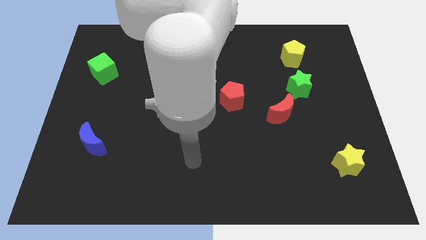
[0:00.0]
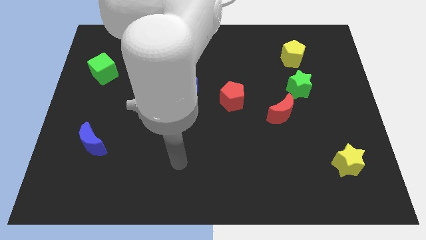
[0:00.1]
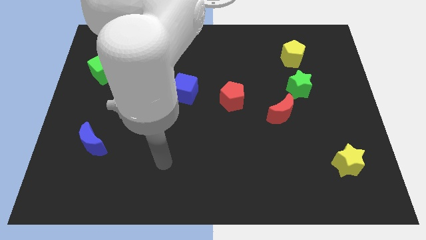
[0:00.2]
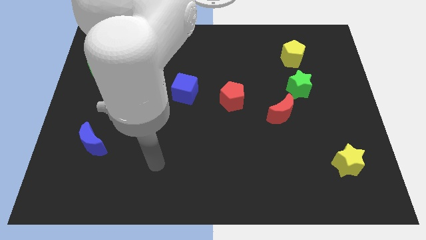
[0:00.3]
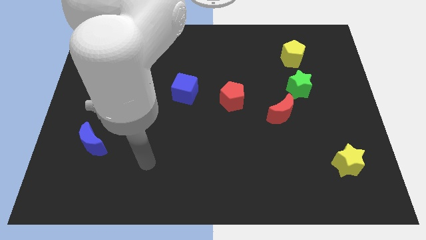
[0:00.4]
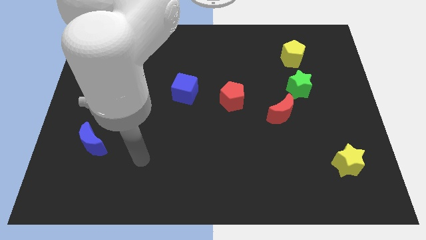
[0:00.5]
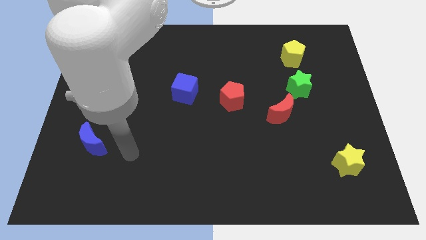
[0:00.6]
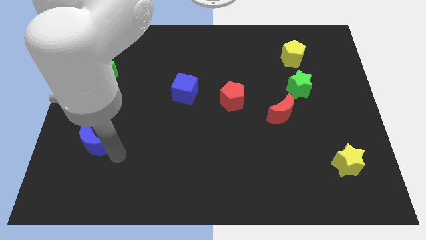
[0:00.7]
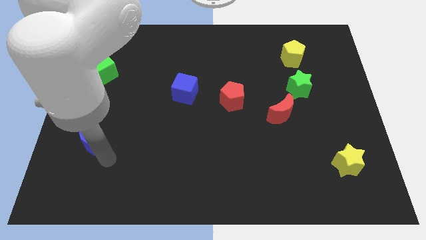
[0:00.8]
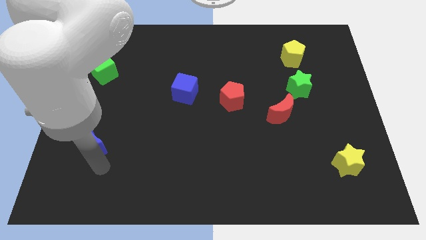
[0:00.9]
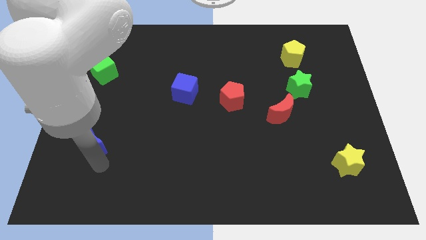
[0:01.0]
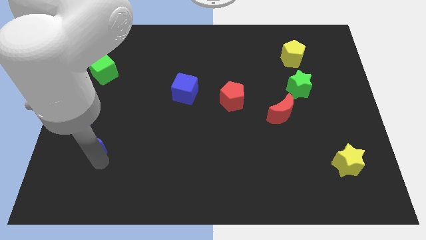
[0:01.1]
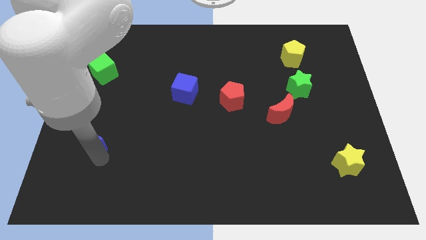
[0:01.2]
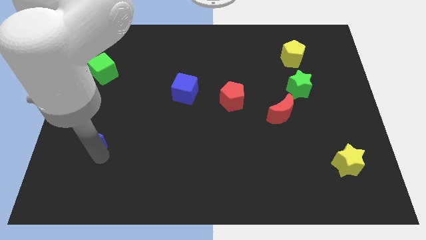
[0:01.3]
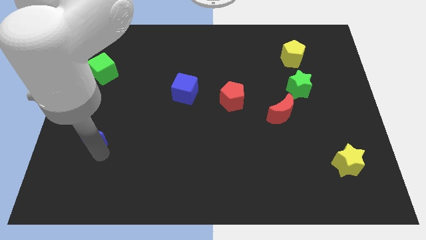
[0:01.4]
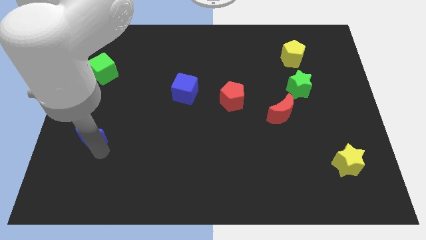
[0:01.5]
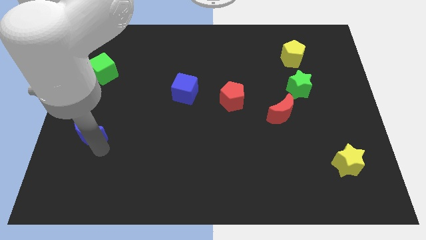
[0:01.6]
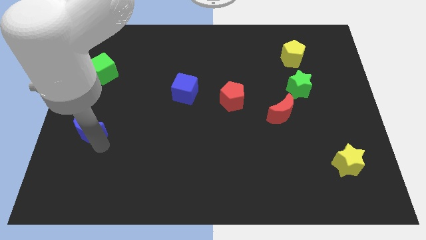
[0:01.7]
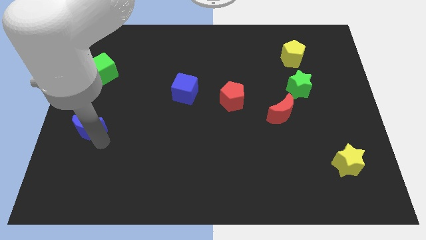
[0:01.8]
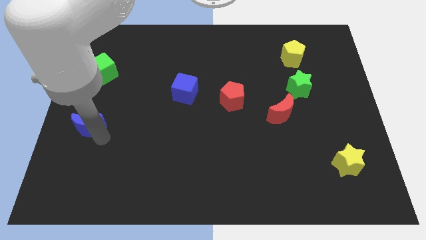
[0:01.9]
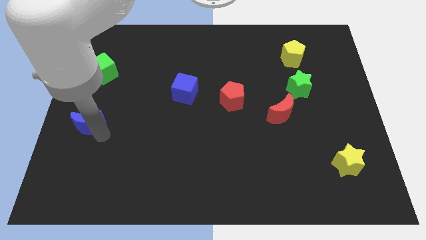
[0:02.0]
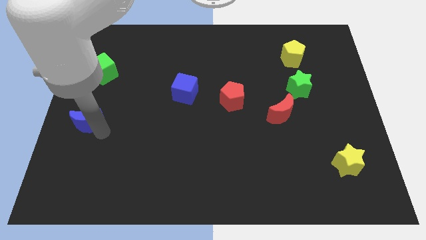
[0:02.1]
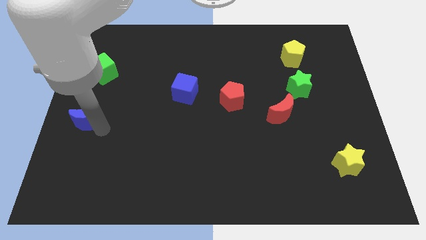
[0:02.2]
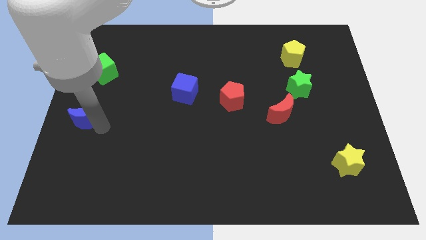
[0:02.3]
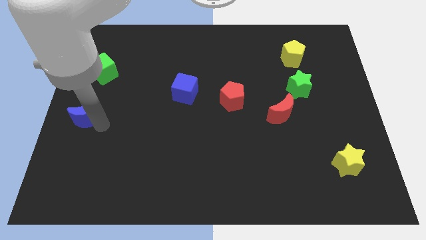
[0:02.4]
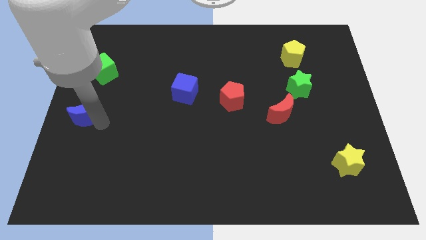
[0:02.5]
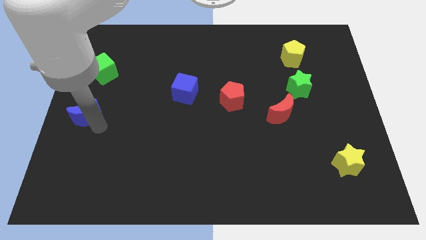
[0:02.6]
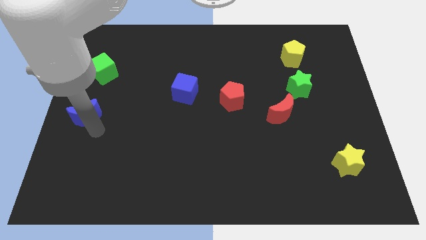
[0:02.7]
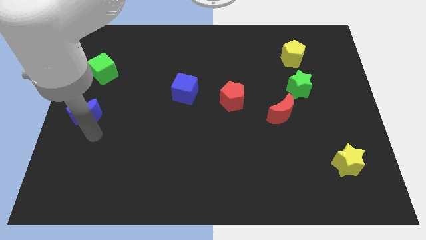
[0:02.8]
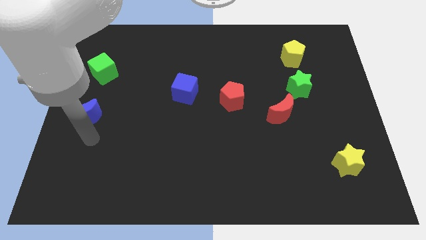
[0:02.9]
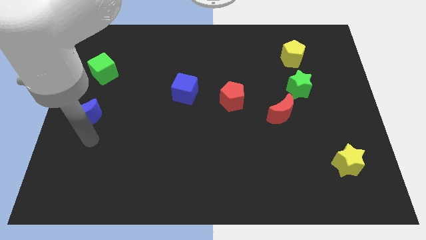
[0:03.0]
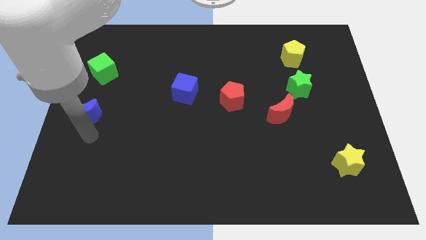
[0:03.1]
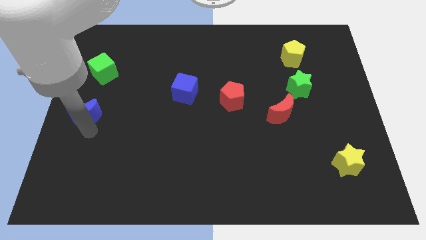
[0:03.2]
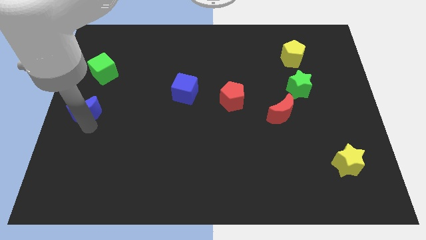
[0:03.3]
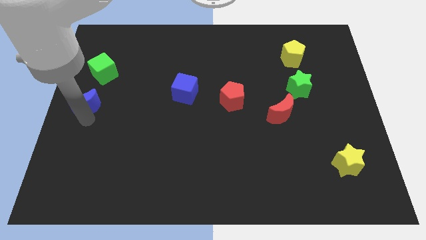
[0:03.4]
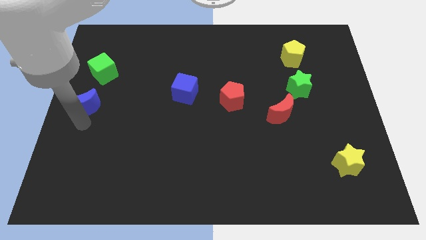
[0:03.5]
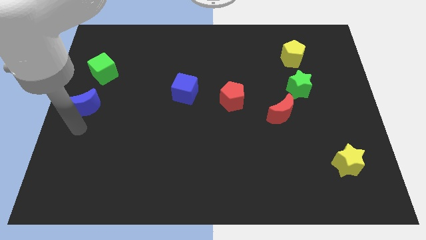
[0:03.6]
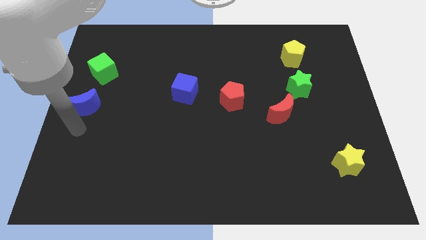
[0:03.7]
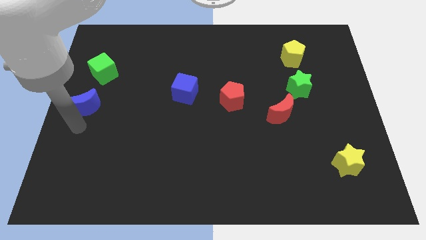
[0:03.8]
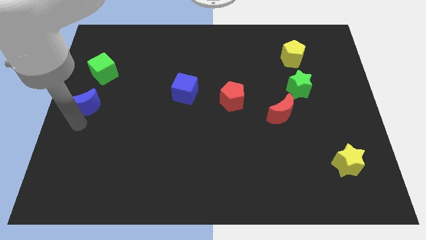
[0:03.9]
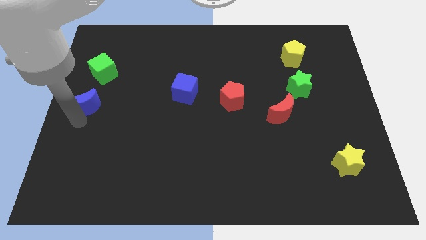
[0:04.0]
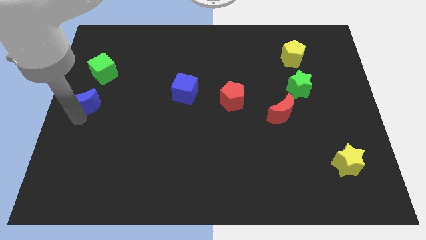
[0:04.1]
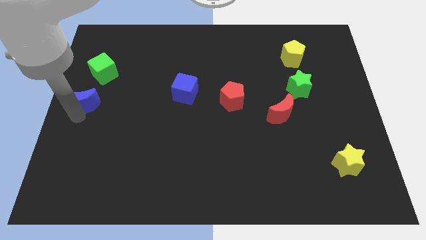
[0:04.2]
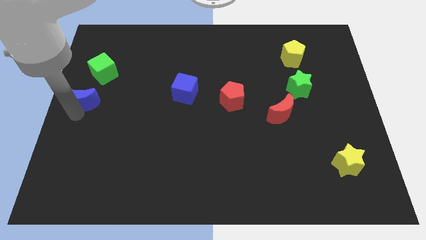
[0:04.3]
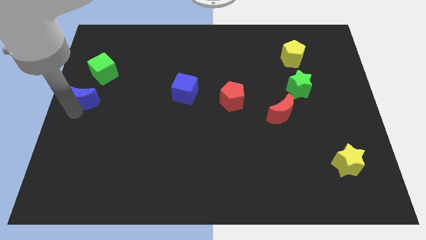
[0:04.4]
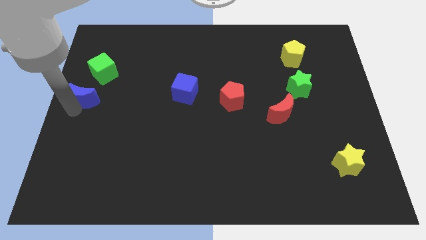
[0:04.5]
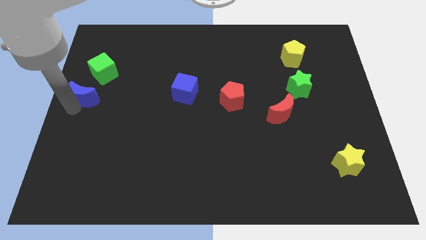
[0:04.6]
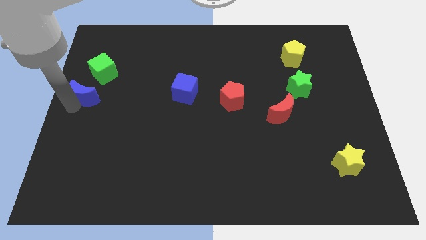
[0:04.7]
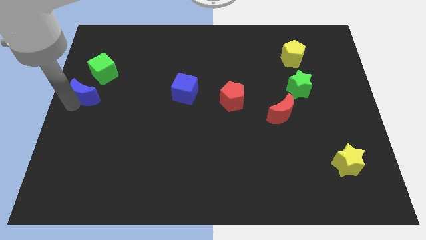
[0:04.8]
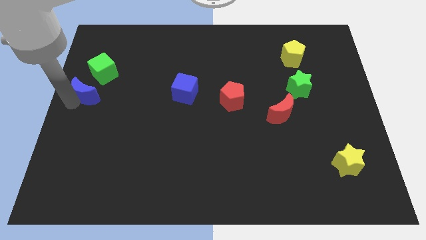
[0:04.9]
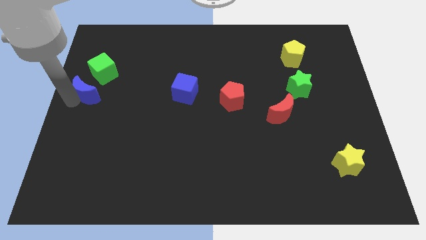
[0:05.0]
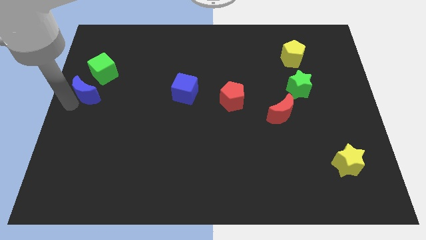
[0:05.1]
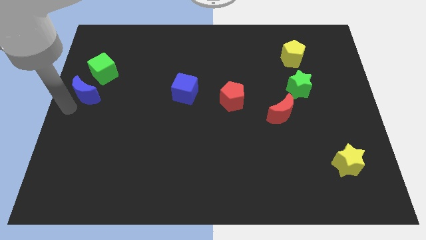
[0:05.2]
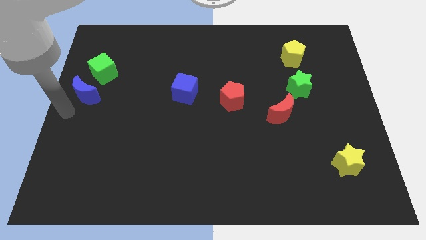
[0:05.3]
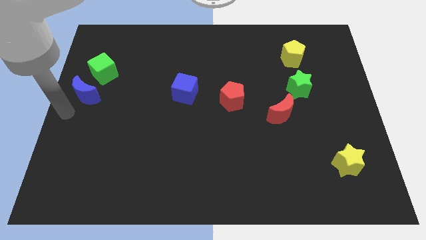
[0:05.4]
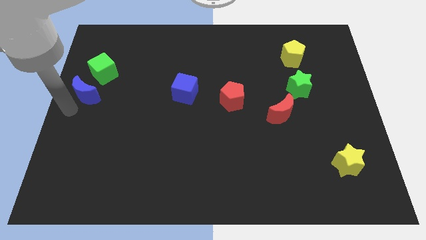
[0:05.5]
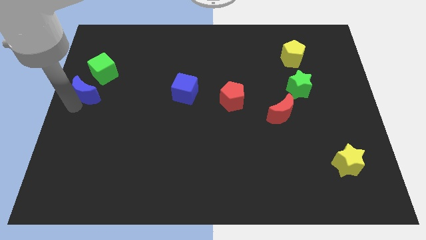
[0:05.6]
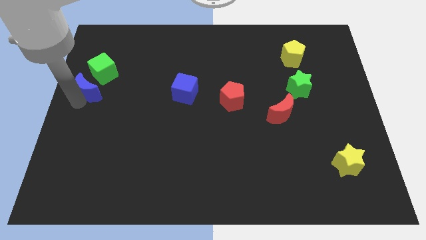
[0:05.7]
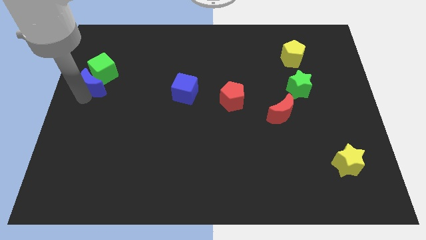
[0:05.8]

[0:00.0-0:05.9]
move the blue moon towards the green cube

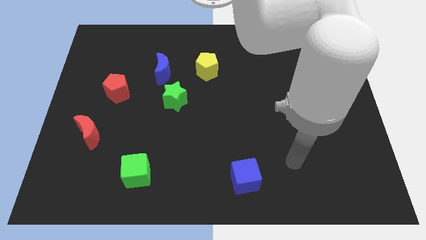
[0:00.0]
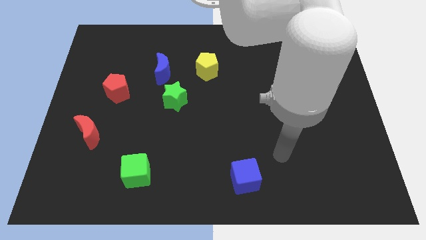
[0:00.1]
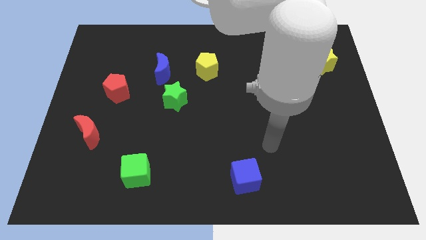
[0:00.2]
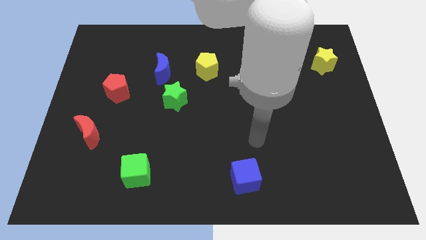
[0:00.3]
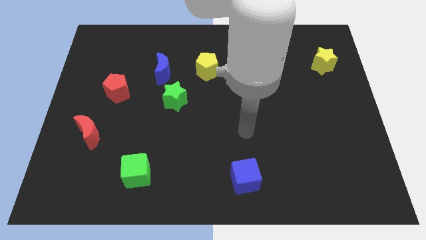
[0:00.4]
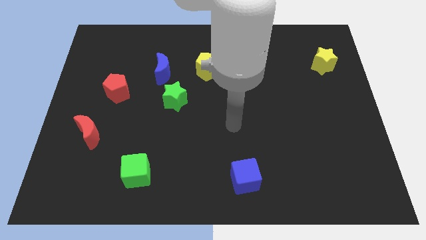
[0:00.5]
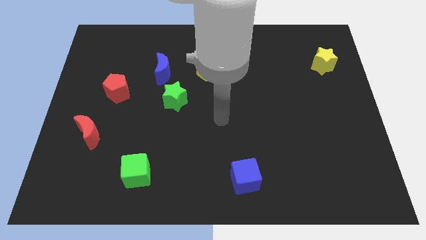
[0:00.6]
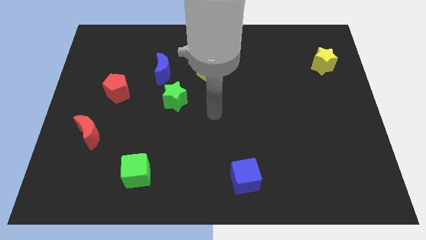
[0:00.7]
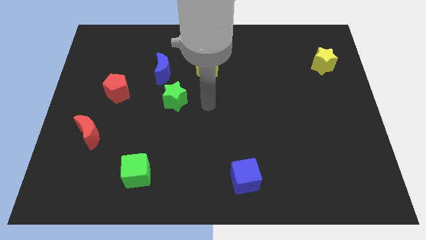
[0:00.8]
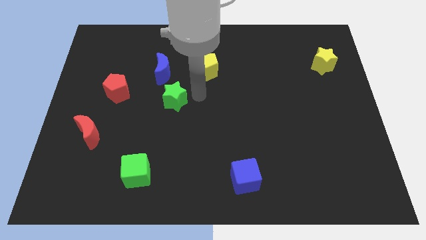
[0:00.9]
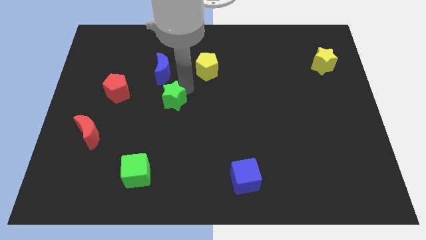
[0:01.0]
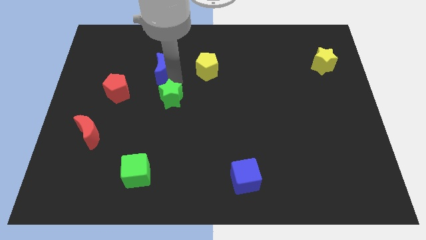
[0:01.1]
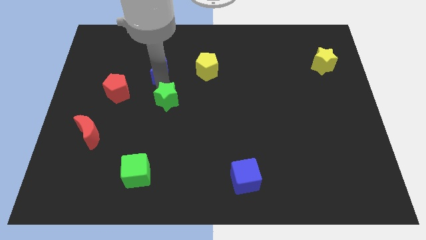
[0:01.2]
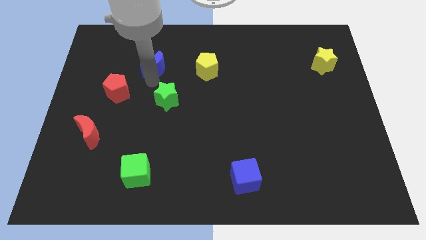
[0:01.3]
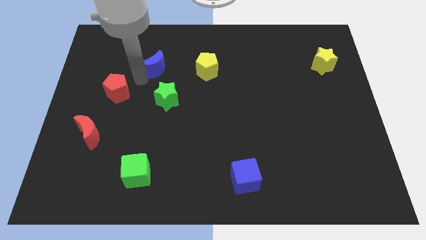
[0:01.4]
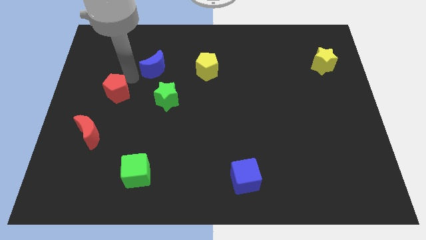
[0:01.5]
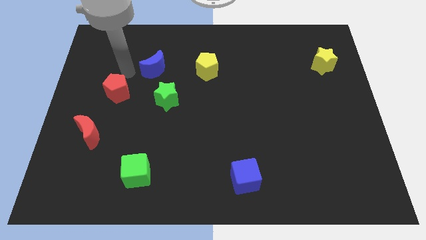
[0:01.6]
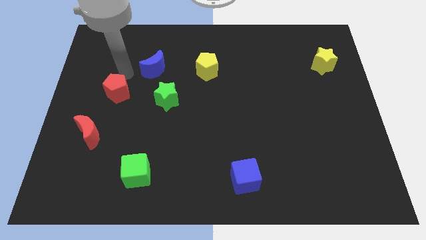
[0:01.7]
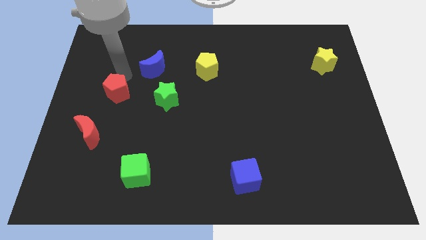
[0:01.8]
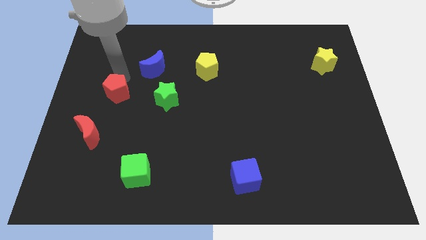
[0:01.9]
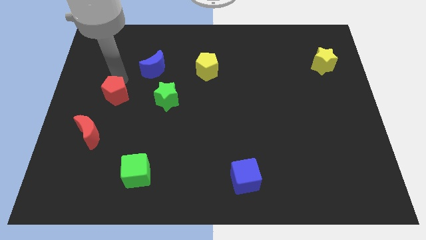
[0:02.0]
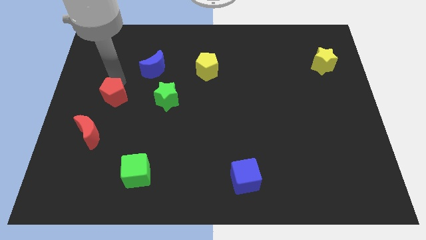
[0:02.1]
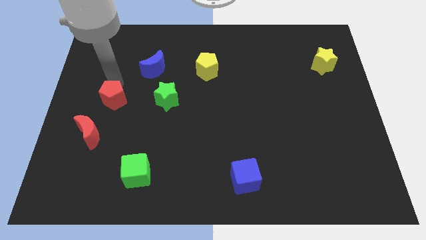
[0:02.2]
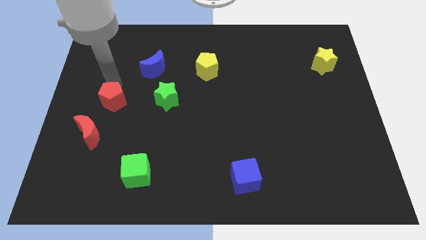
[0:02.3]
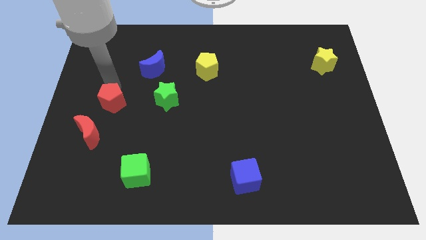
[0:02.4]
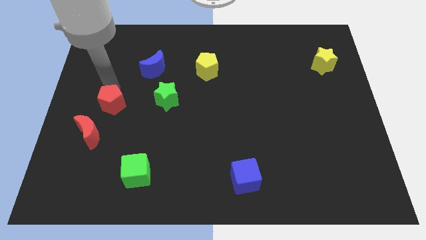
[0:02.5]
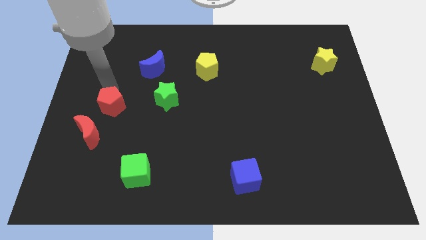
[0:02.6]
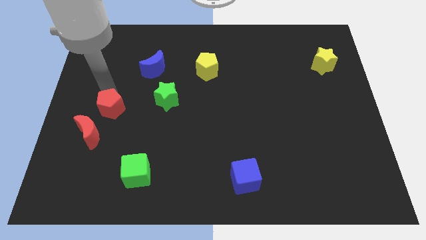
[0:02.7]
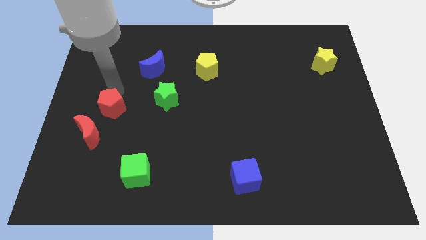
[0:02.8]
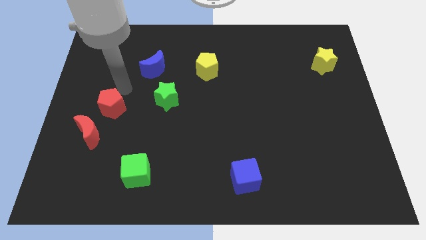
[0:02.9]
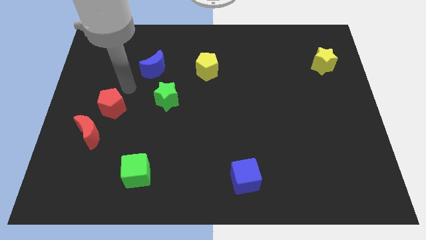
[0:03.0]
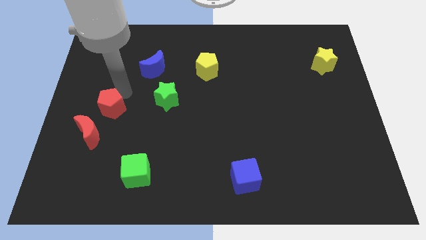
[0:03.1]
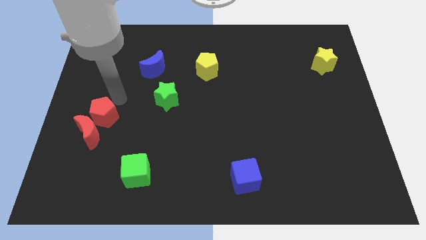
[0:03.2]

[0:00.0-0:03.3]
put the red pentagon next to the red moon
